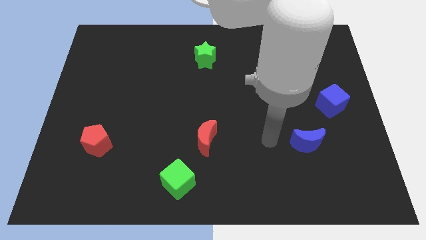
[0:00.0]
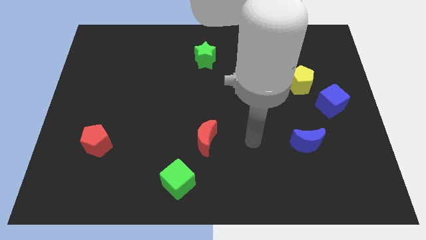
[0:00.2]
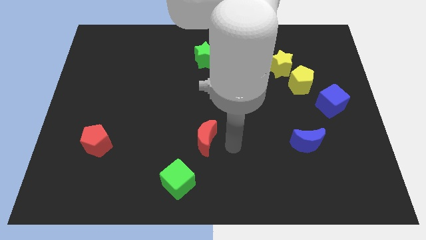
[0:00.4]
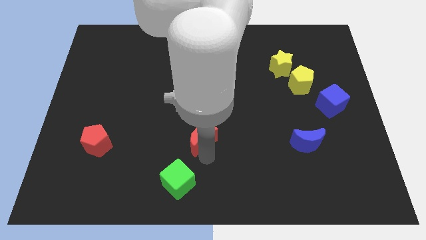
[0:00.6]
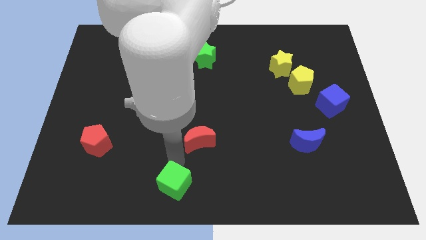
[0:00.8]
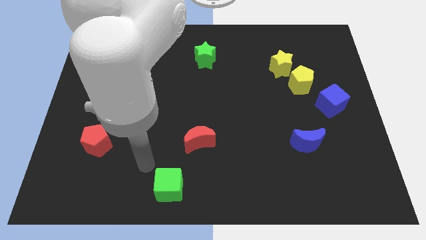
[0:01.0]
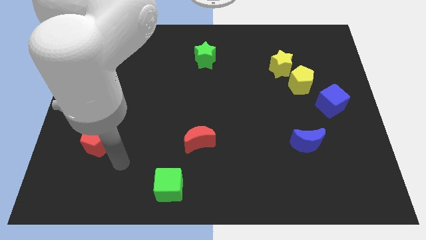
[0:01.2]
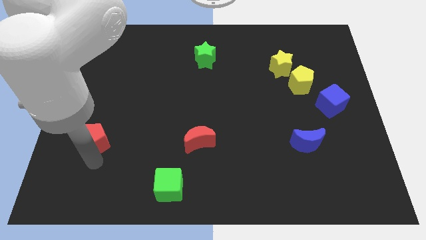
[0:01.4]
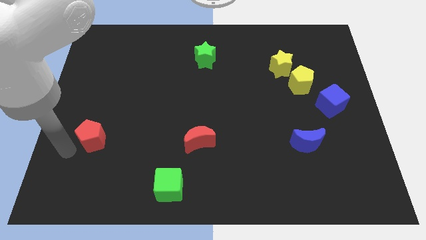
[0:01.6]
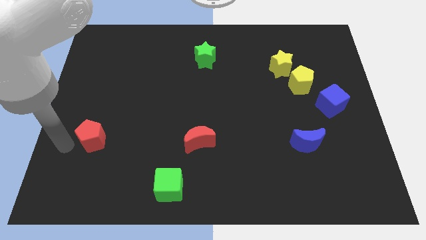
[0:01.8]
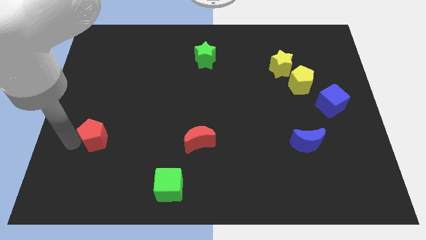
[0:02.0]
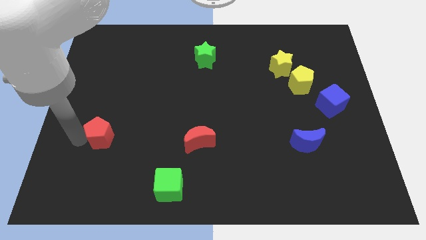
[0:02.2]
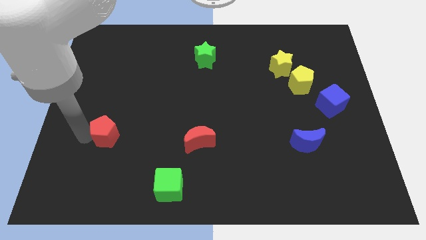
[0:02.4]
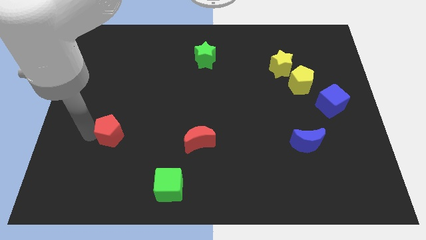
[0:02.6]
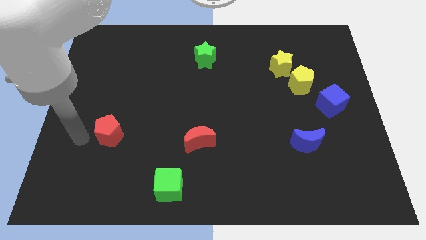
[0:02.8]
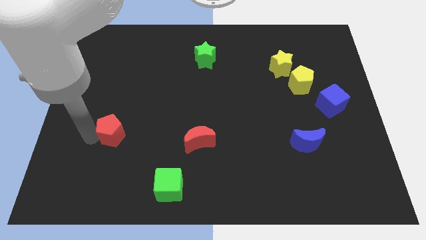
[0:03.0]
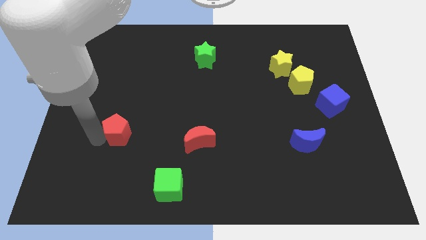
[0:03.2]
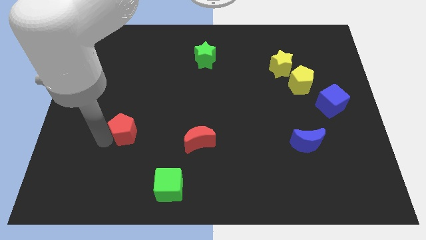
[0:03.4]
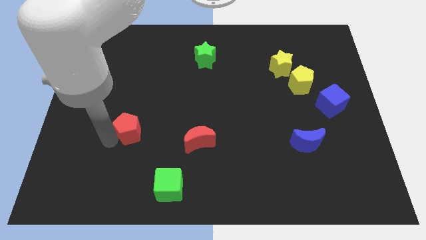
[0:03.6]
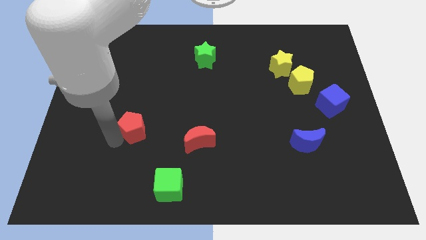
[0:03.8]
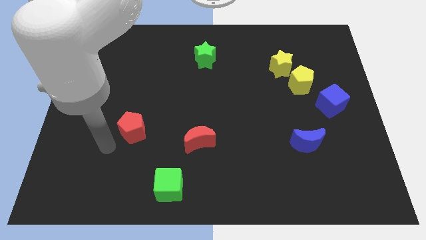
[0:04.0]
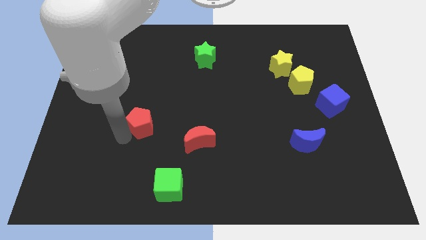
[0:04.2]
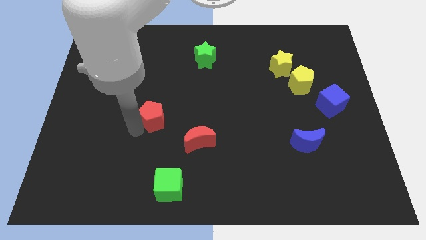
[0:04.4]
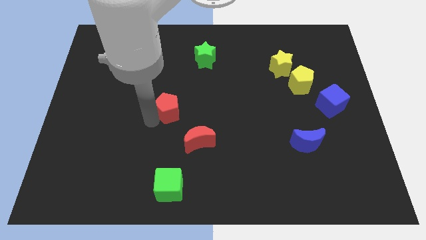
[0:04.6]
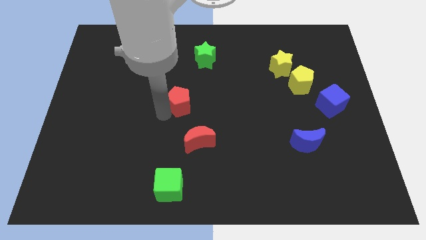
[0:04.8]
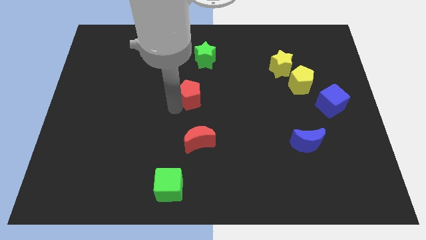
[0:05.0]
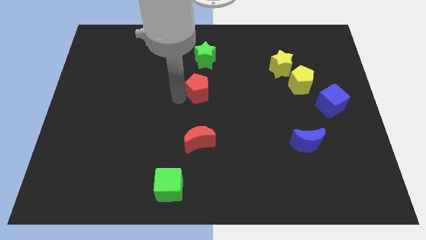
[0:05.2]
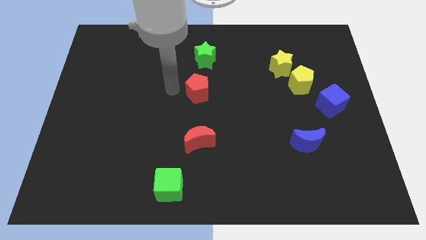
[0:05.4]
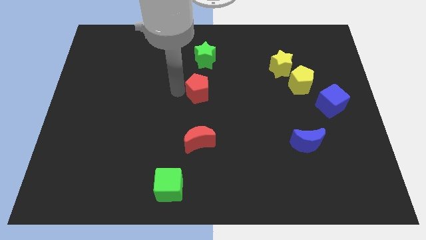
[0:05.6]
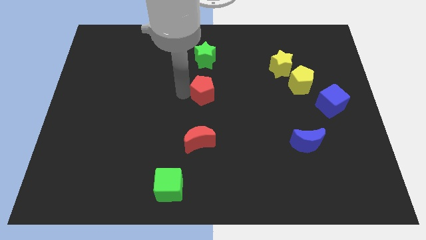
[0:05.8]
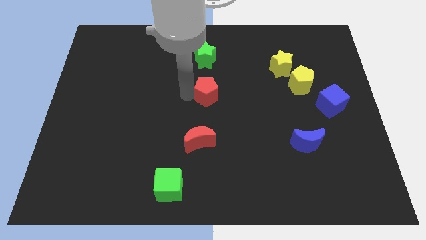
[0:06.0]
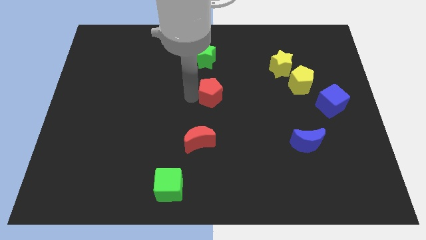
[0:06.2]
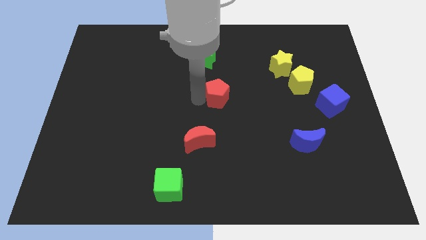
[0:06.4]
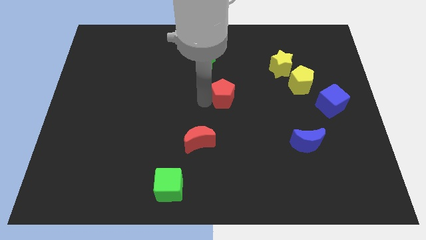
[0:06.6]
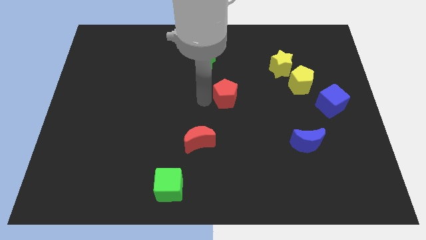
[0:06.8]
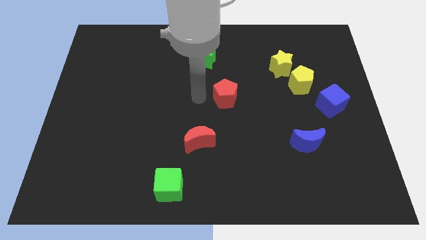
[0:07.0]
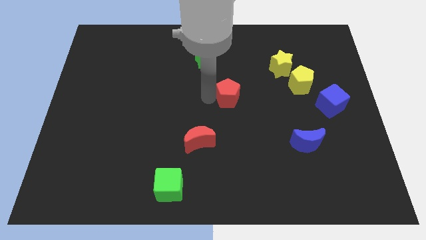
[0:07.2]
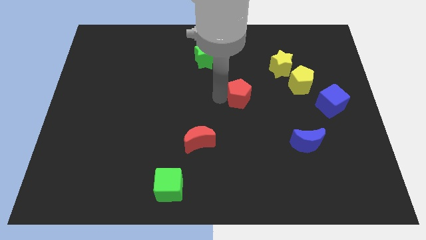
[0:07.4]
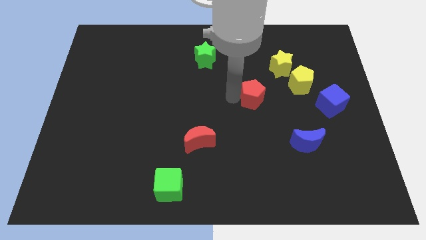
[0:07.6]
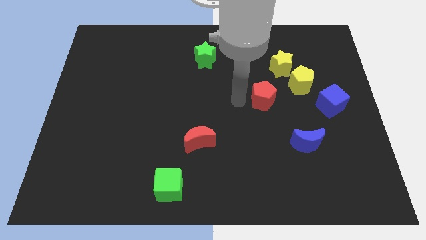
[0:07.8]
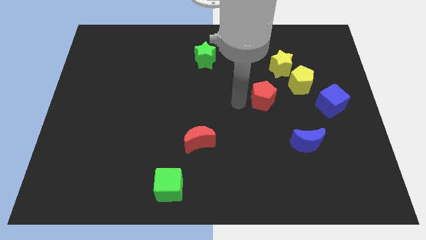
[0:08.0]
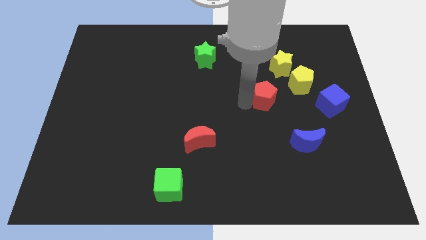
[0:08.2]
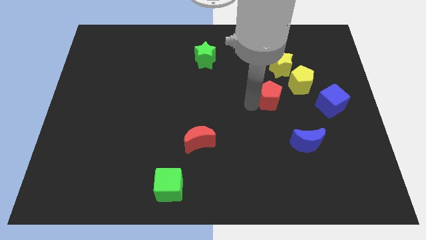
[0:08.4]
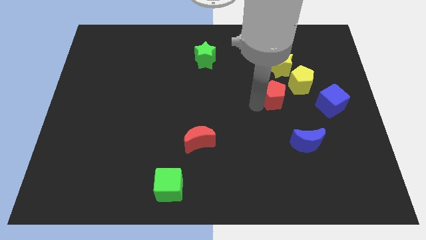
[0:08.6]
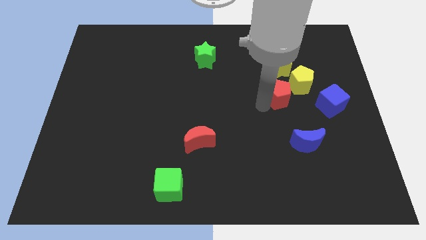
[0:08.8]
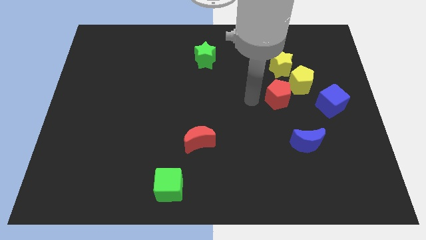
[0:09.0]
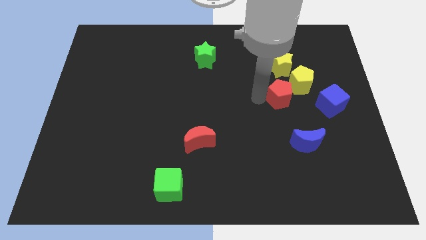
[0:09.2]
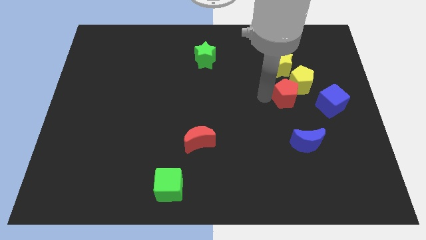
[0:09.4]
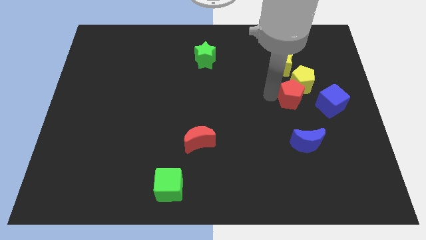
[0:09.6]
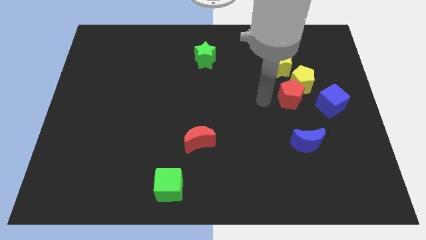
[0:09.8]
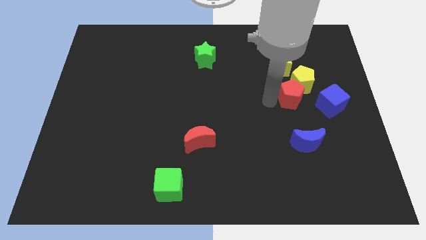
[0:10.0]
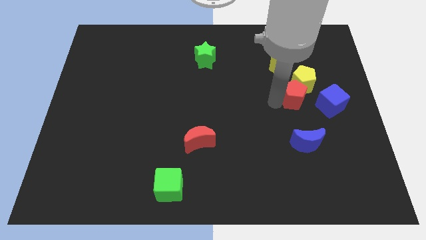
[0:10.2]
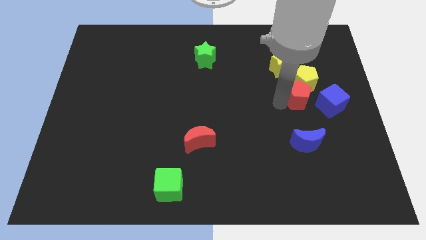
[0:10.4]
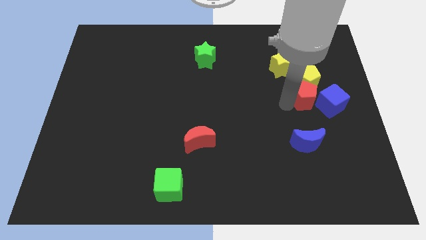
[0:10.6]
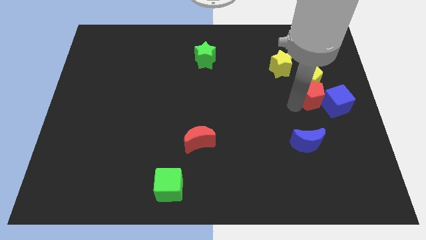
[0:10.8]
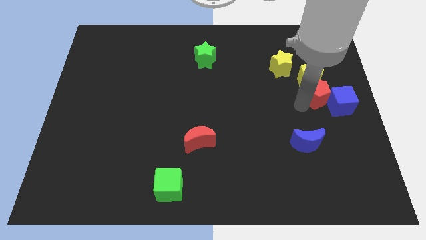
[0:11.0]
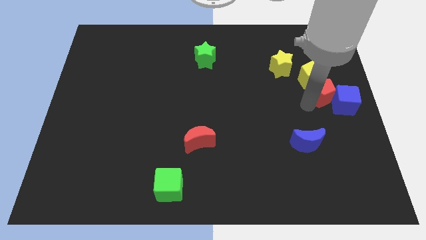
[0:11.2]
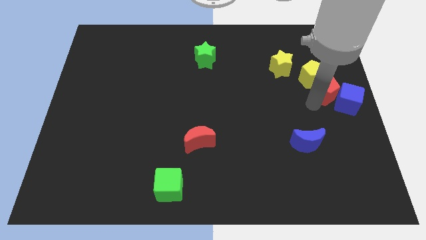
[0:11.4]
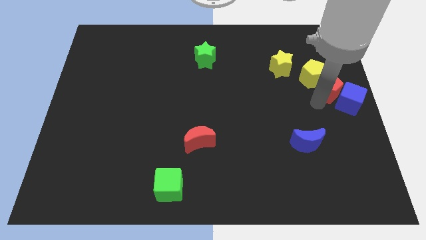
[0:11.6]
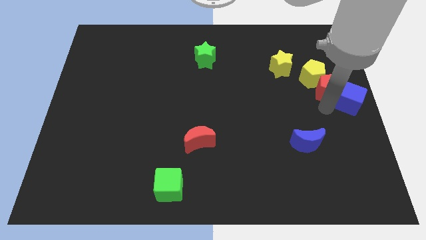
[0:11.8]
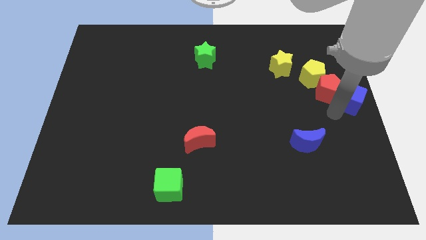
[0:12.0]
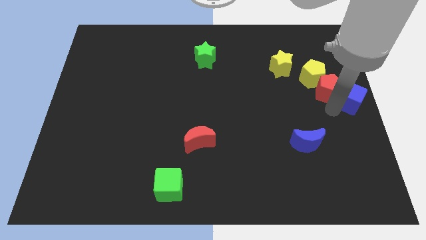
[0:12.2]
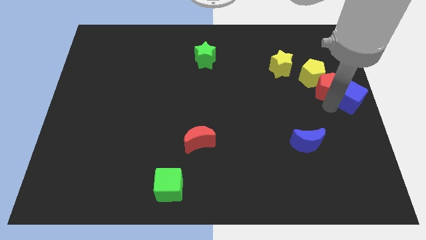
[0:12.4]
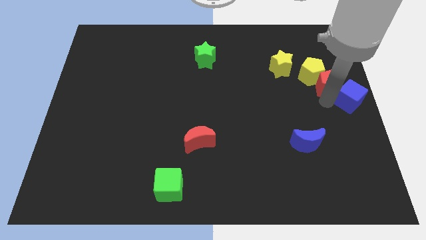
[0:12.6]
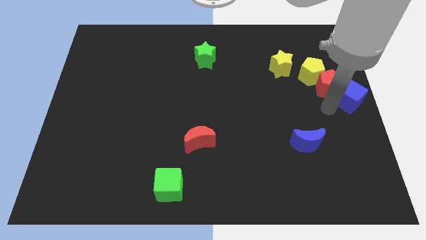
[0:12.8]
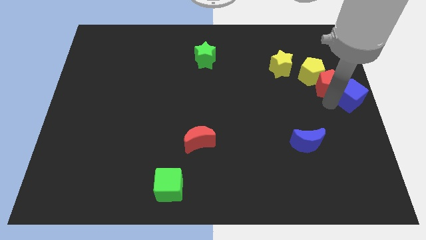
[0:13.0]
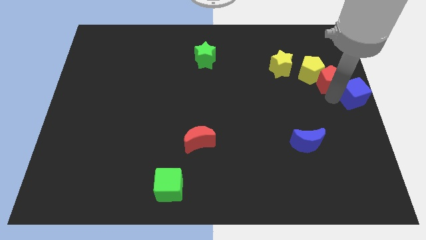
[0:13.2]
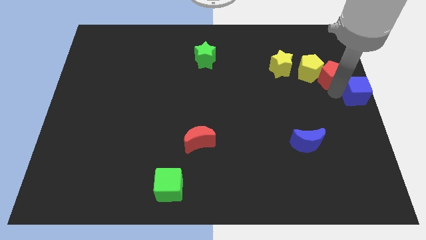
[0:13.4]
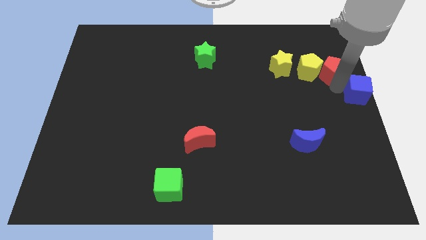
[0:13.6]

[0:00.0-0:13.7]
slide the red pentagon to the top right side of the yellow pentagon
